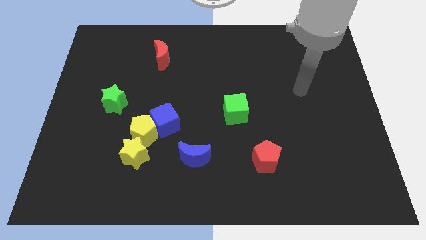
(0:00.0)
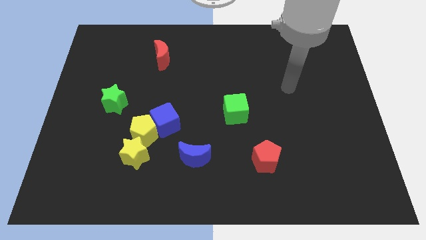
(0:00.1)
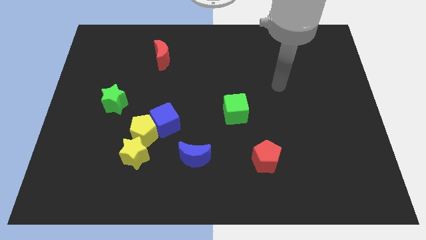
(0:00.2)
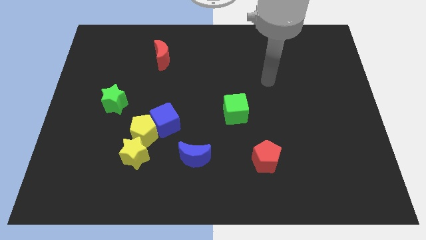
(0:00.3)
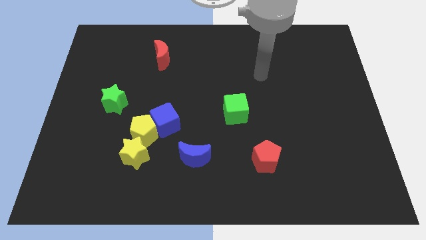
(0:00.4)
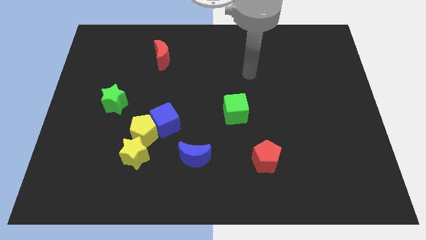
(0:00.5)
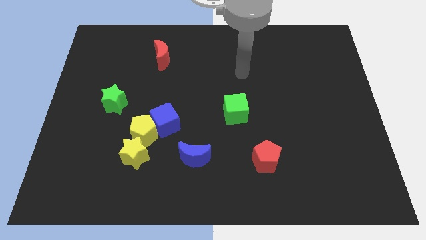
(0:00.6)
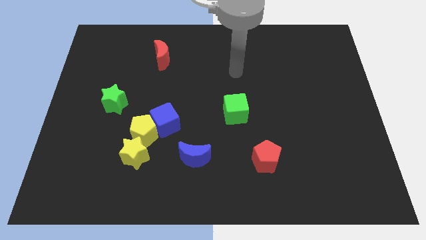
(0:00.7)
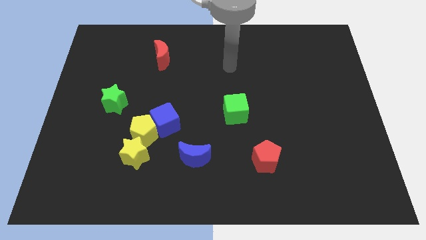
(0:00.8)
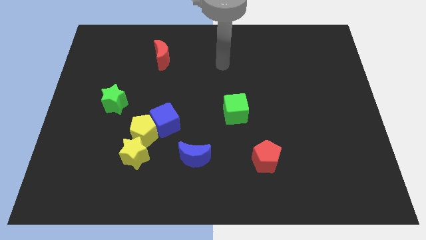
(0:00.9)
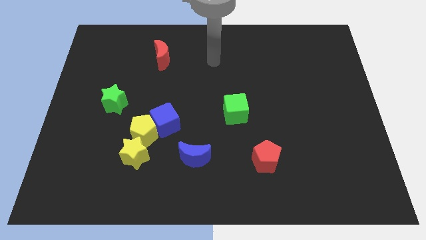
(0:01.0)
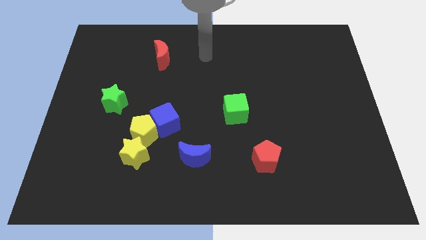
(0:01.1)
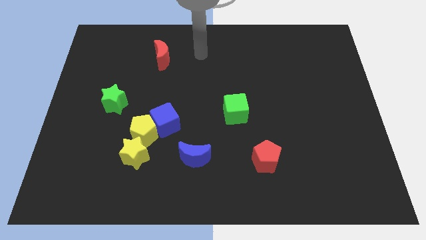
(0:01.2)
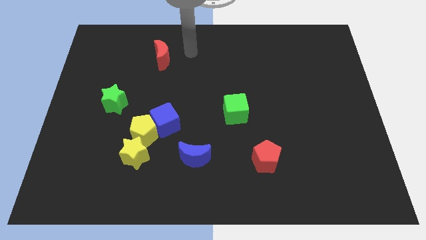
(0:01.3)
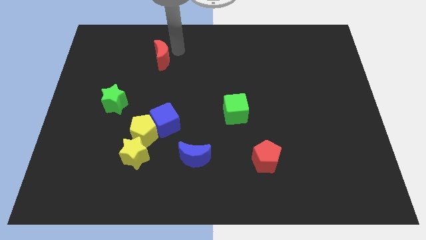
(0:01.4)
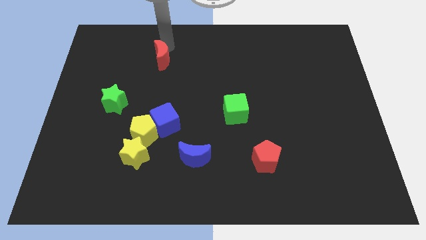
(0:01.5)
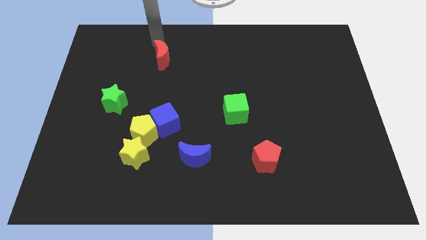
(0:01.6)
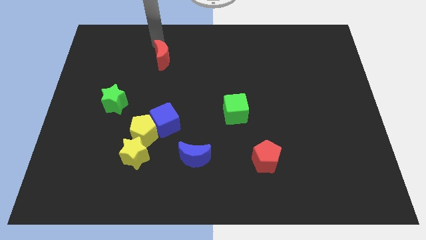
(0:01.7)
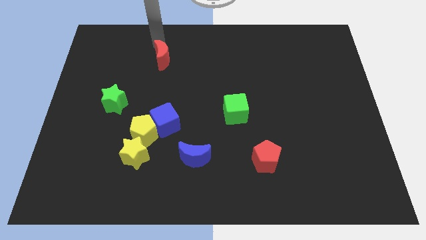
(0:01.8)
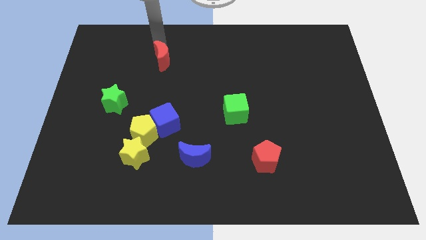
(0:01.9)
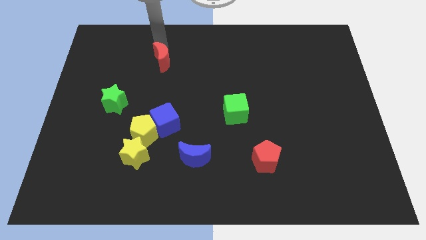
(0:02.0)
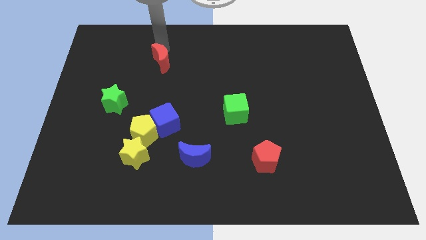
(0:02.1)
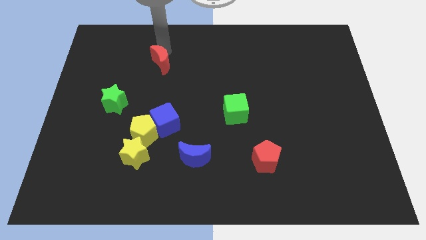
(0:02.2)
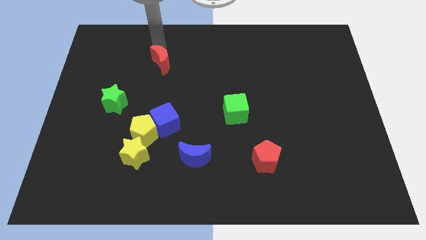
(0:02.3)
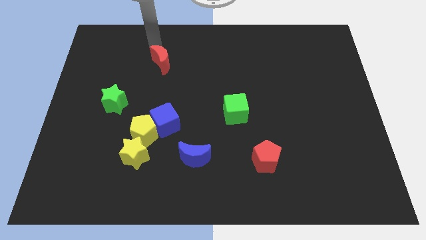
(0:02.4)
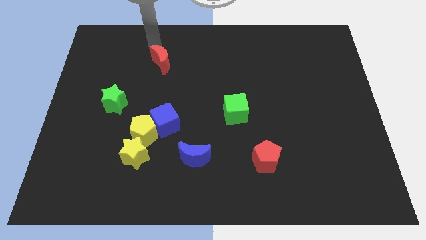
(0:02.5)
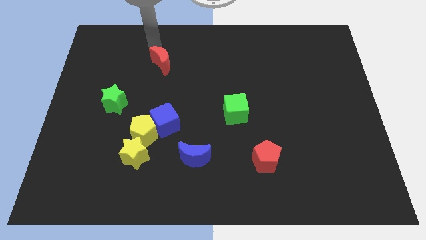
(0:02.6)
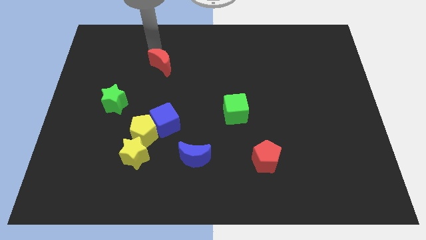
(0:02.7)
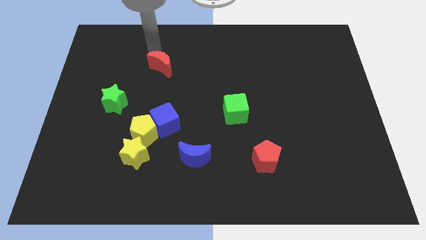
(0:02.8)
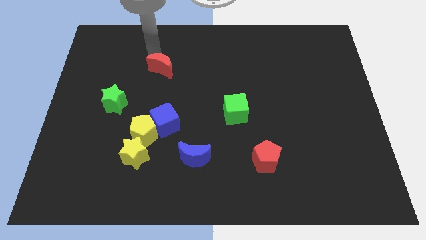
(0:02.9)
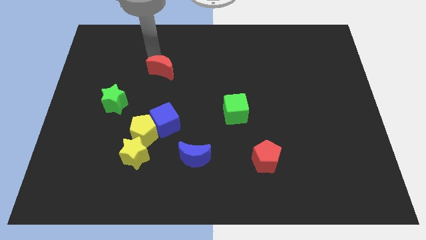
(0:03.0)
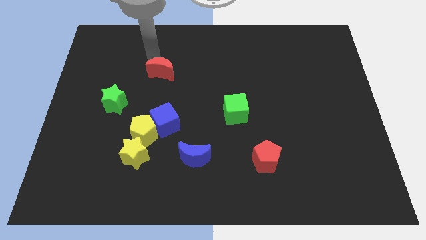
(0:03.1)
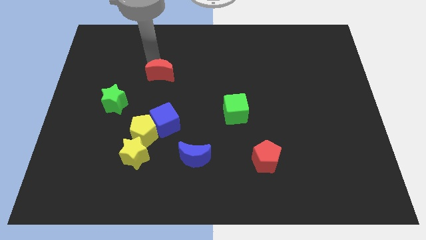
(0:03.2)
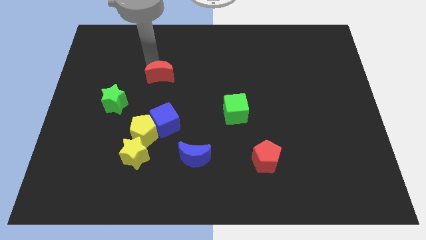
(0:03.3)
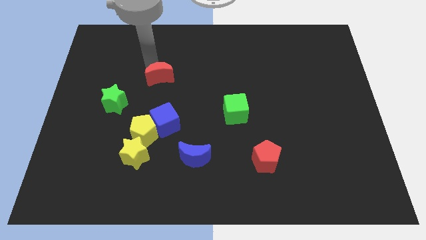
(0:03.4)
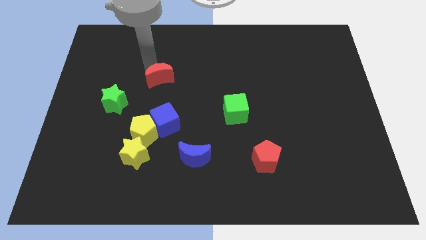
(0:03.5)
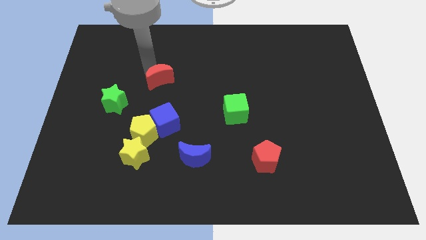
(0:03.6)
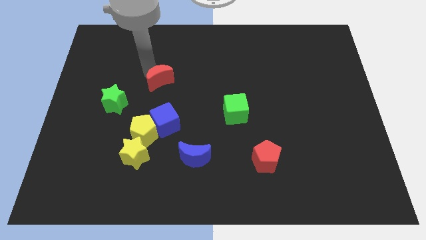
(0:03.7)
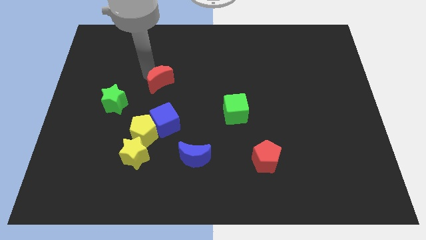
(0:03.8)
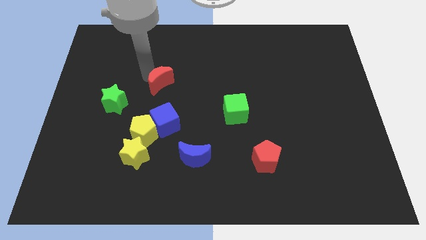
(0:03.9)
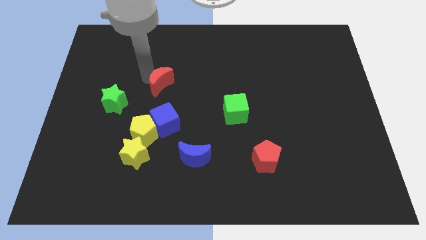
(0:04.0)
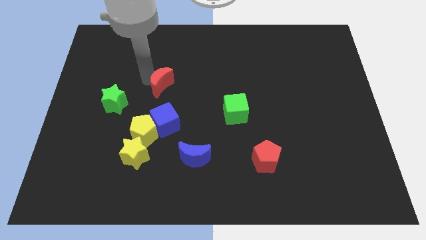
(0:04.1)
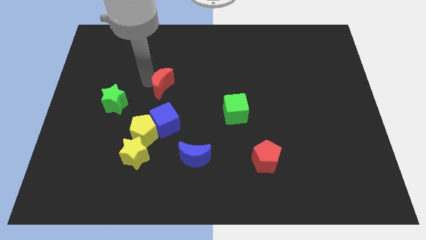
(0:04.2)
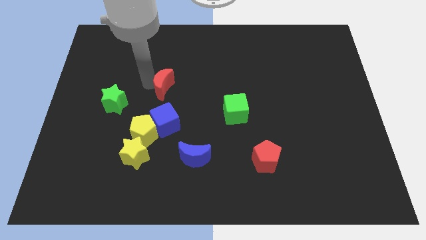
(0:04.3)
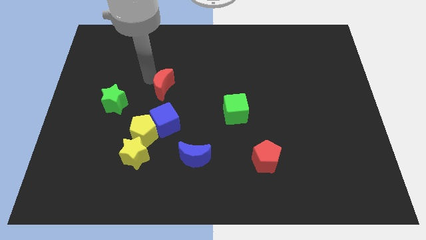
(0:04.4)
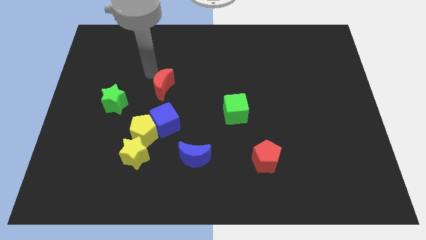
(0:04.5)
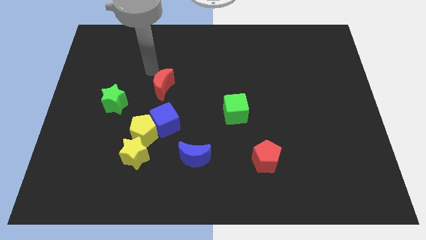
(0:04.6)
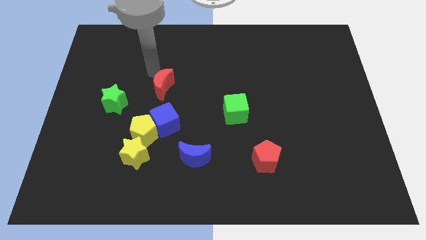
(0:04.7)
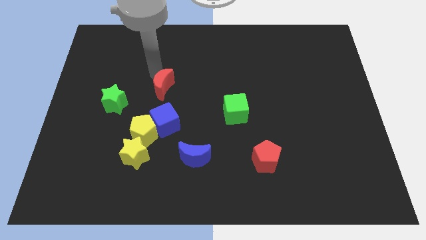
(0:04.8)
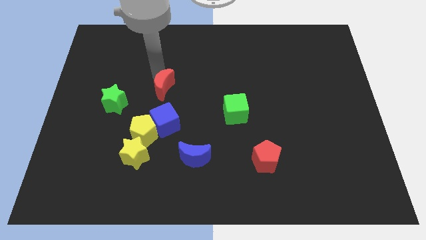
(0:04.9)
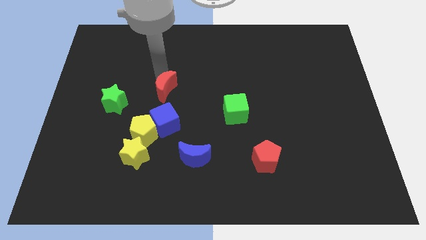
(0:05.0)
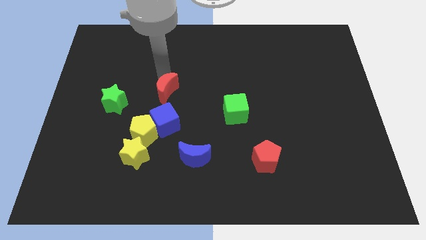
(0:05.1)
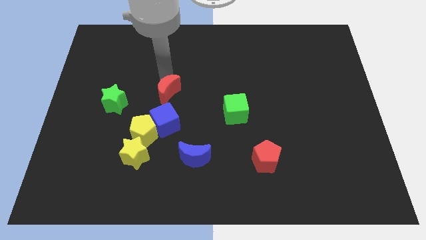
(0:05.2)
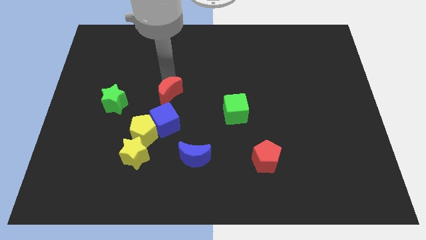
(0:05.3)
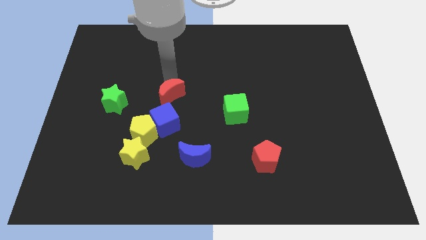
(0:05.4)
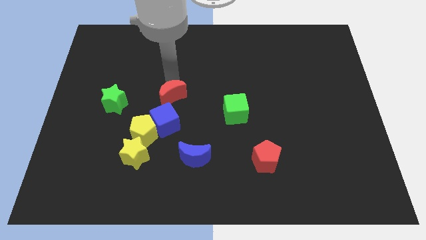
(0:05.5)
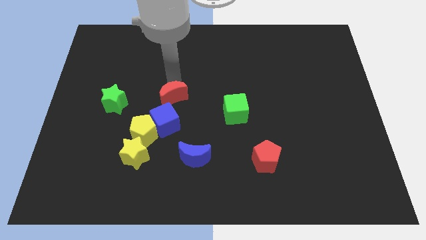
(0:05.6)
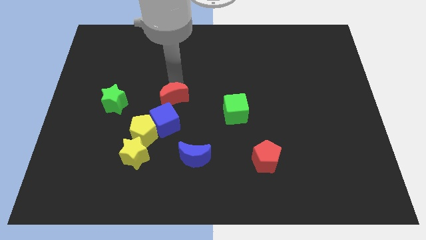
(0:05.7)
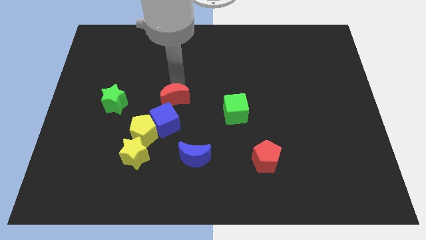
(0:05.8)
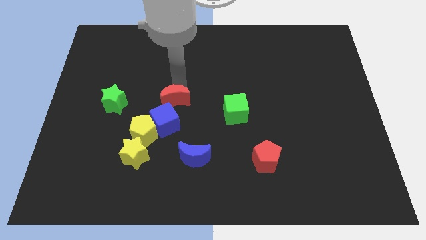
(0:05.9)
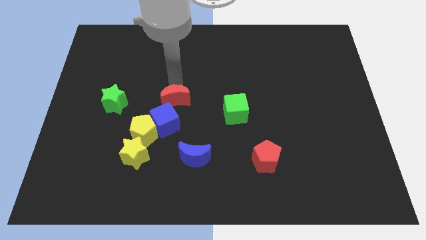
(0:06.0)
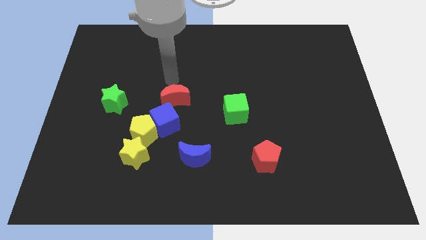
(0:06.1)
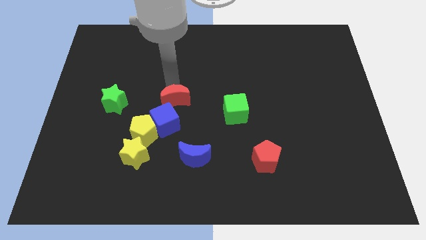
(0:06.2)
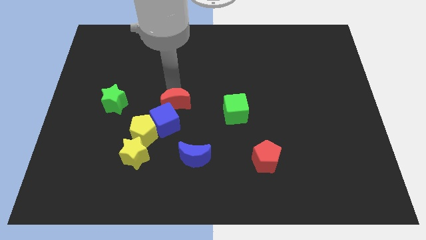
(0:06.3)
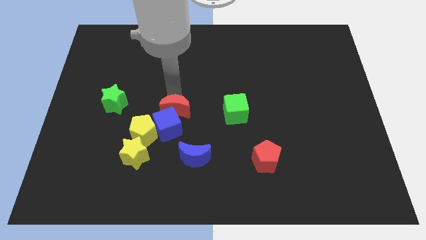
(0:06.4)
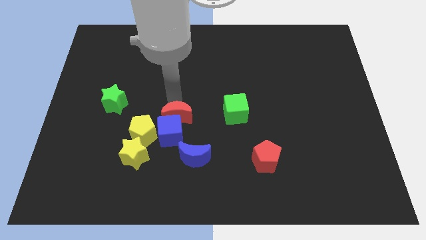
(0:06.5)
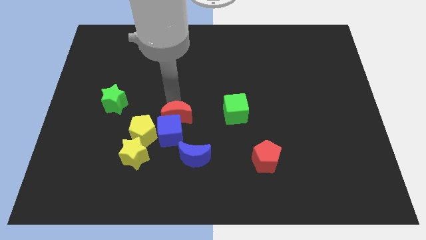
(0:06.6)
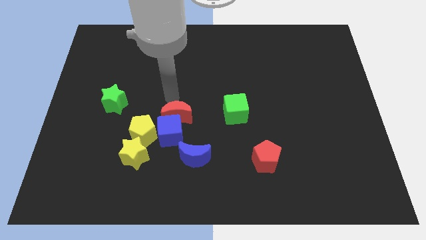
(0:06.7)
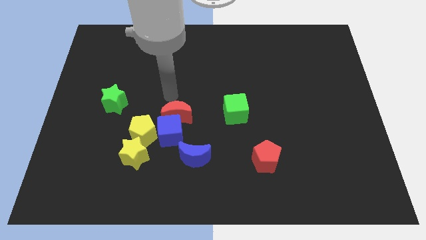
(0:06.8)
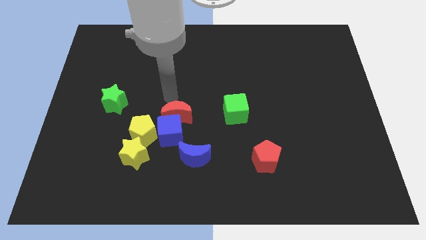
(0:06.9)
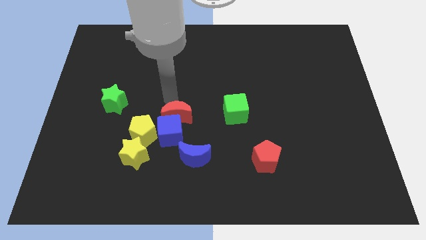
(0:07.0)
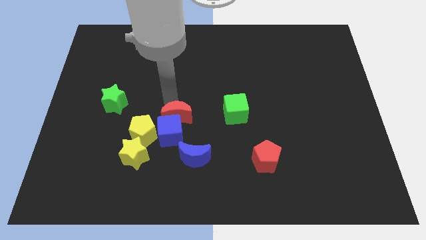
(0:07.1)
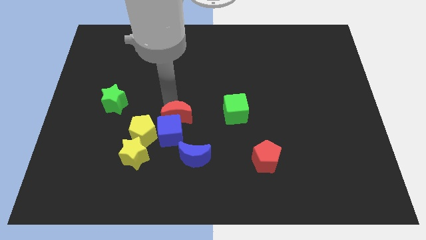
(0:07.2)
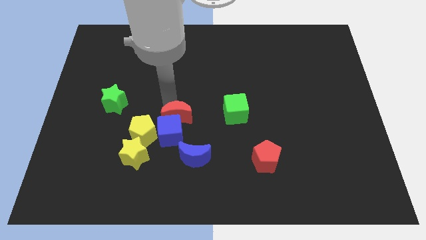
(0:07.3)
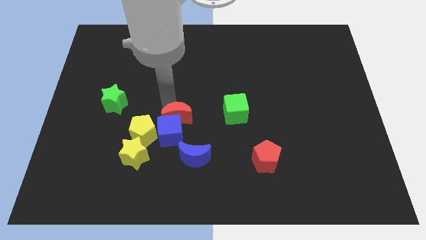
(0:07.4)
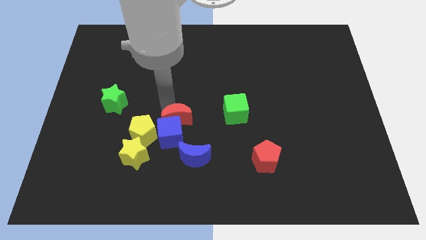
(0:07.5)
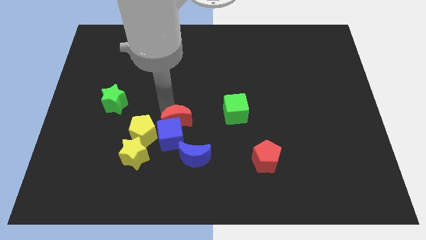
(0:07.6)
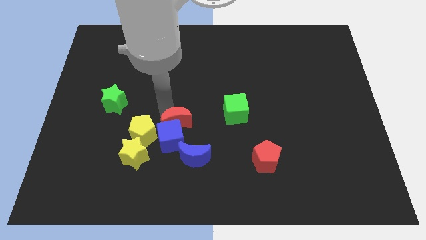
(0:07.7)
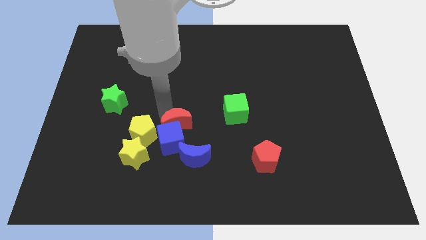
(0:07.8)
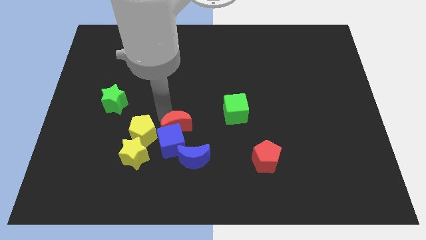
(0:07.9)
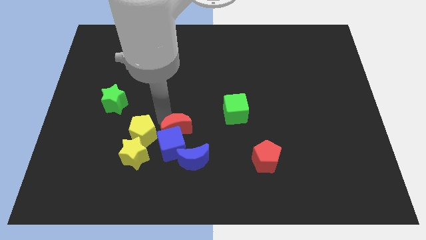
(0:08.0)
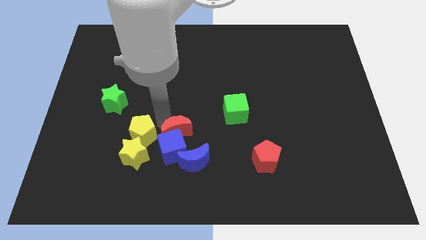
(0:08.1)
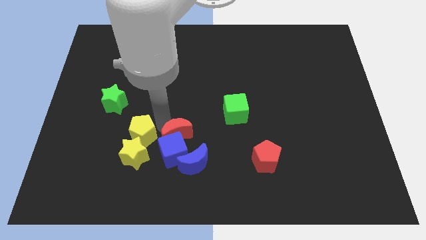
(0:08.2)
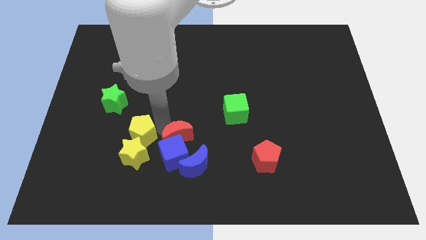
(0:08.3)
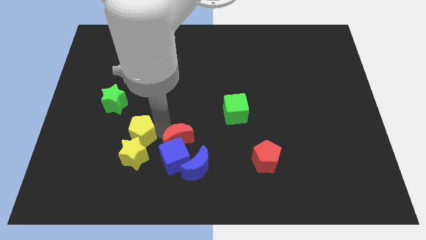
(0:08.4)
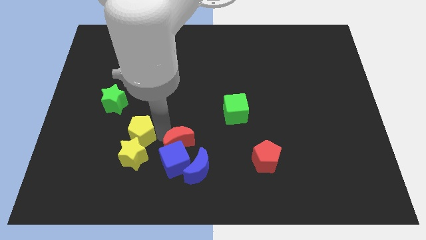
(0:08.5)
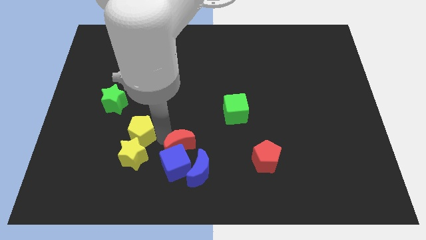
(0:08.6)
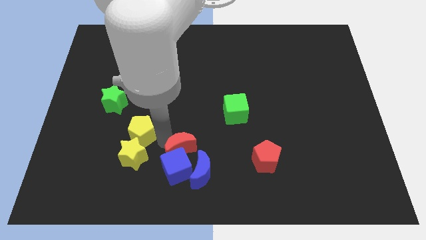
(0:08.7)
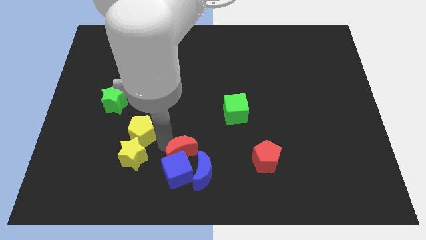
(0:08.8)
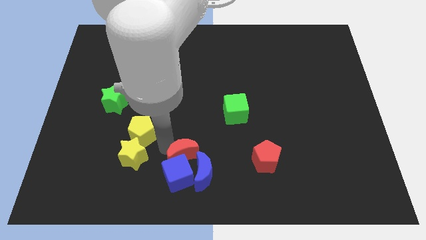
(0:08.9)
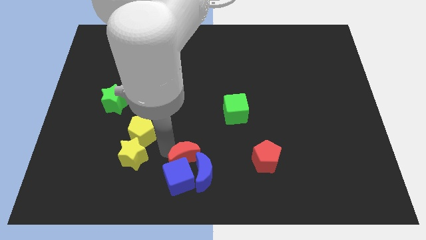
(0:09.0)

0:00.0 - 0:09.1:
put the red moon close to the blue moon
